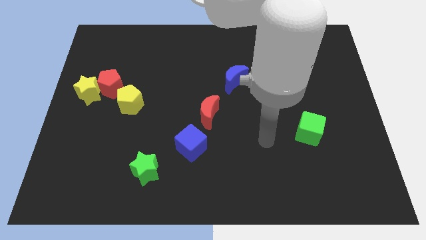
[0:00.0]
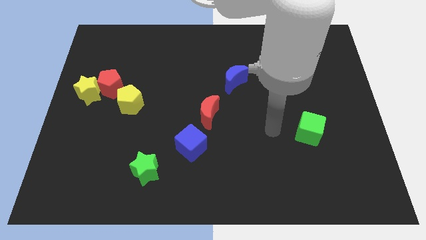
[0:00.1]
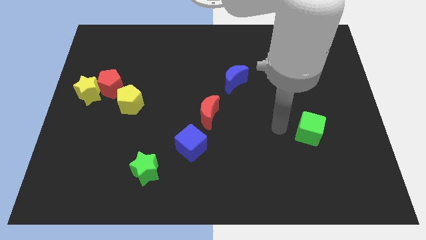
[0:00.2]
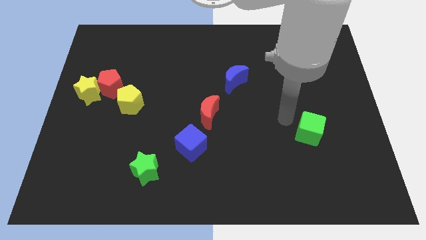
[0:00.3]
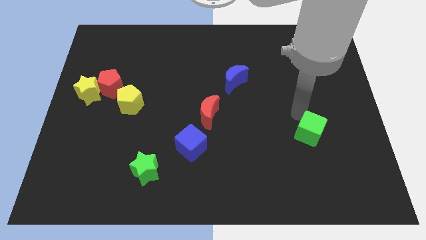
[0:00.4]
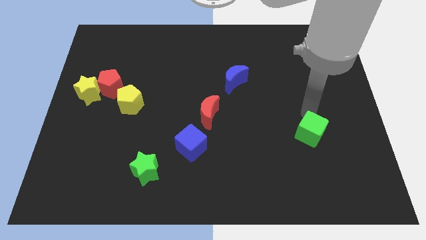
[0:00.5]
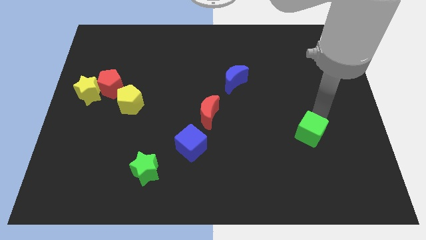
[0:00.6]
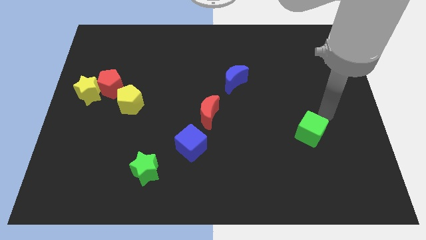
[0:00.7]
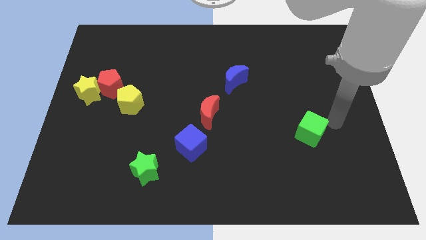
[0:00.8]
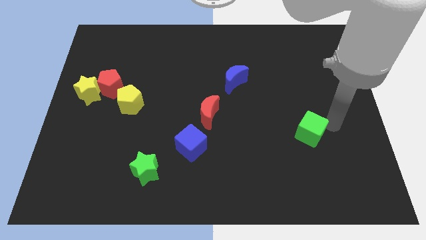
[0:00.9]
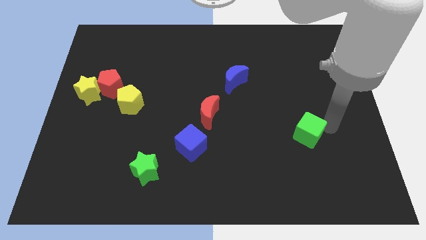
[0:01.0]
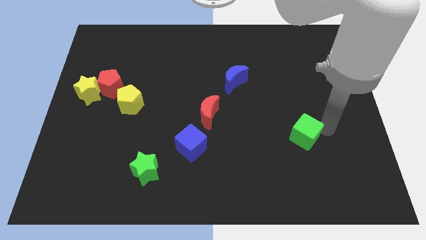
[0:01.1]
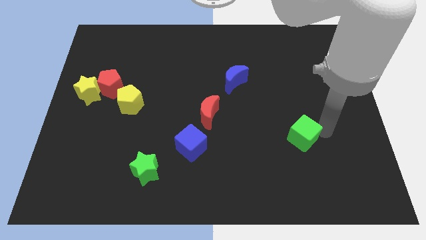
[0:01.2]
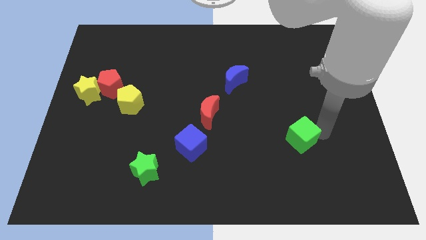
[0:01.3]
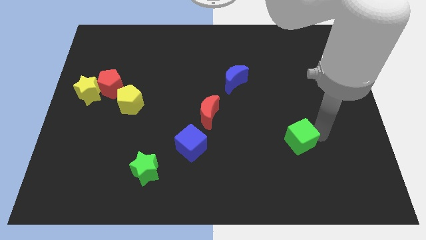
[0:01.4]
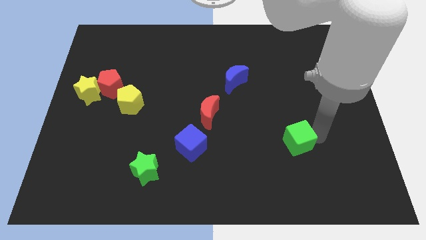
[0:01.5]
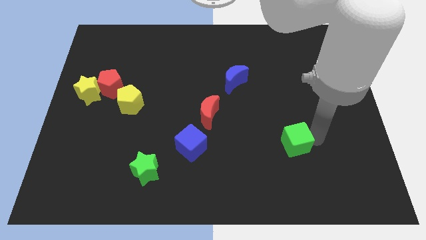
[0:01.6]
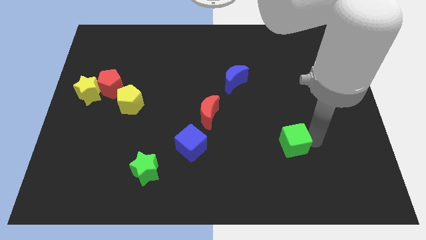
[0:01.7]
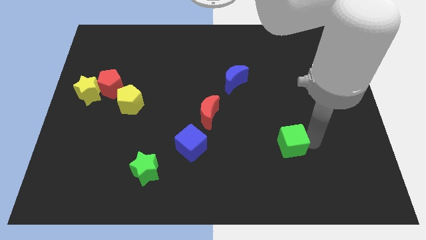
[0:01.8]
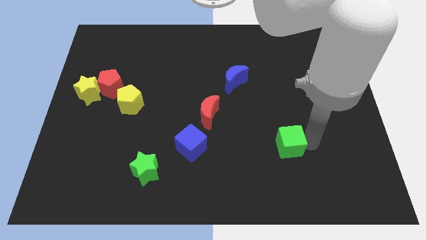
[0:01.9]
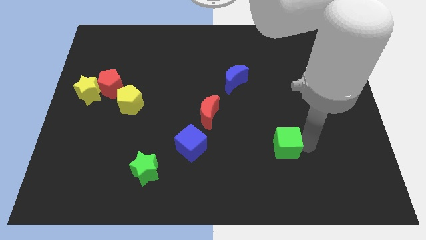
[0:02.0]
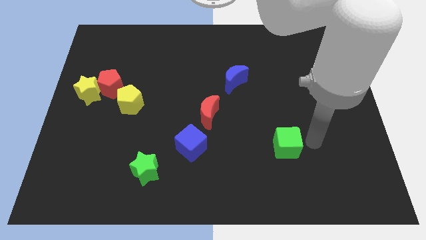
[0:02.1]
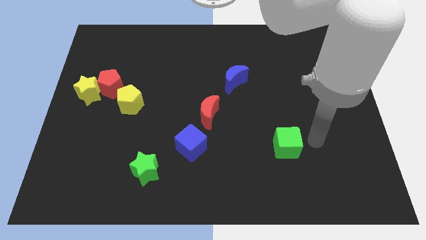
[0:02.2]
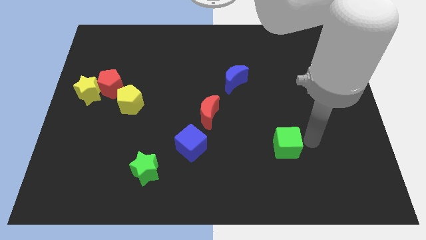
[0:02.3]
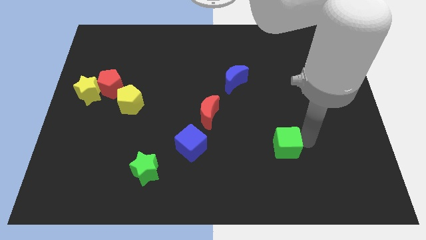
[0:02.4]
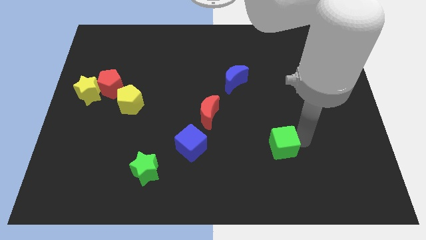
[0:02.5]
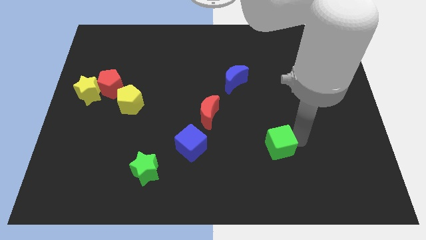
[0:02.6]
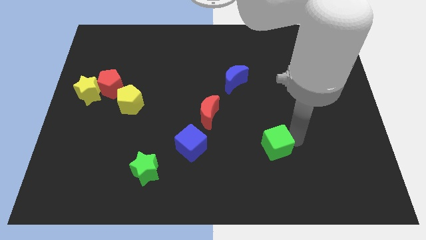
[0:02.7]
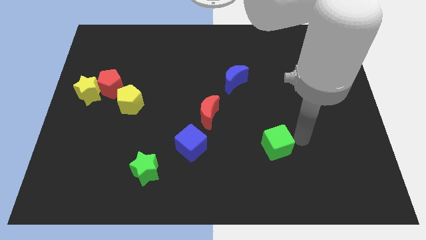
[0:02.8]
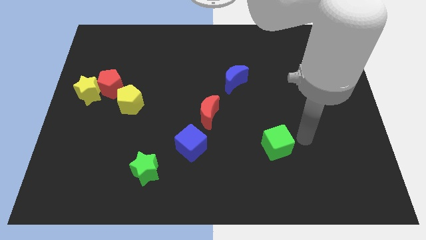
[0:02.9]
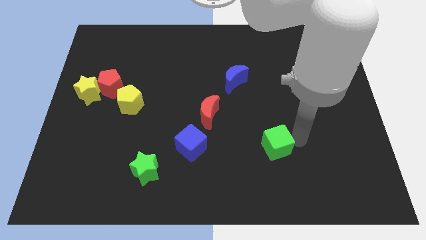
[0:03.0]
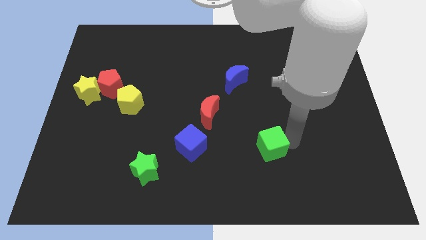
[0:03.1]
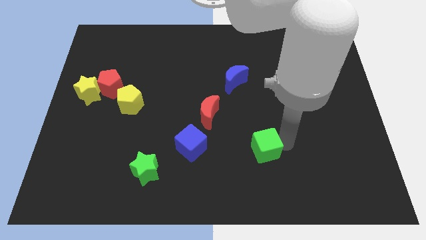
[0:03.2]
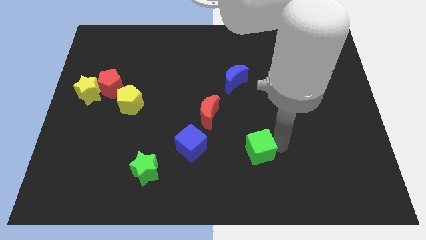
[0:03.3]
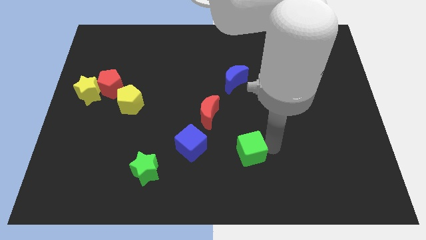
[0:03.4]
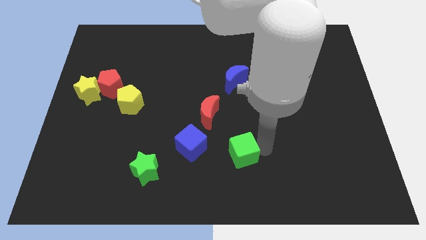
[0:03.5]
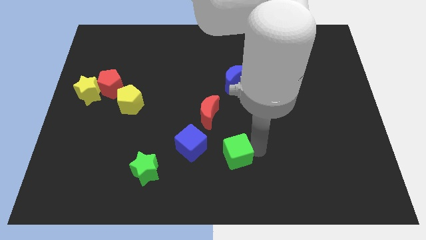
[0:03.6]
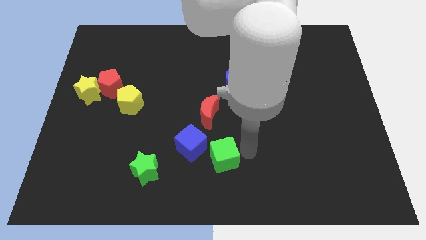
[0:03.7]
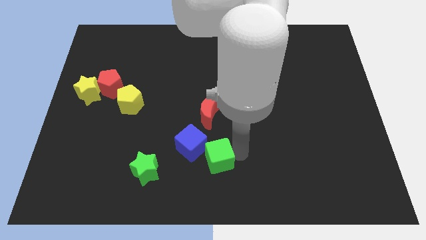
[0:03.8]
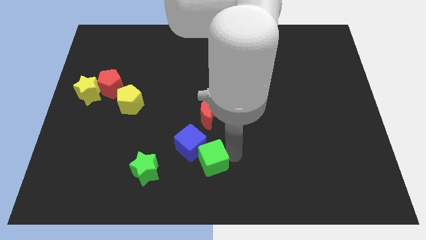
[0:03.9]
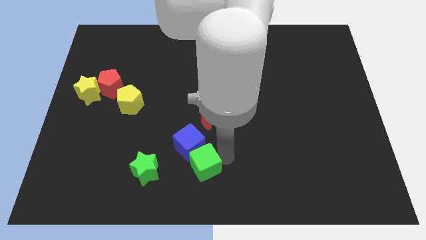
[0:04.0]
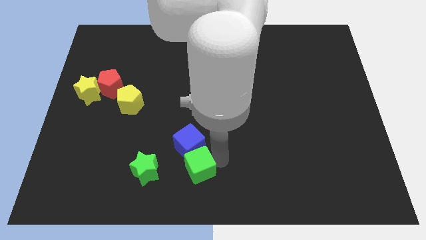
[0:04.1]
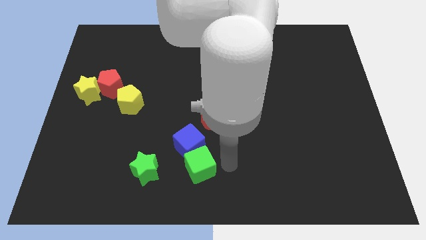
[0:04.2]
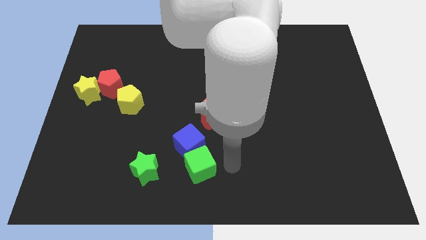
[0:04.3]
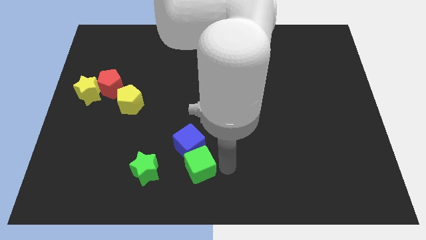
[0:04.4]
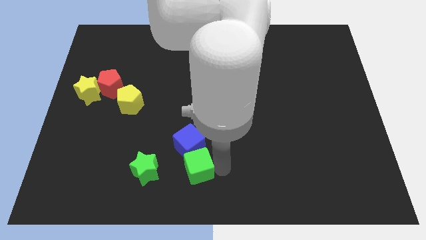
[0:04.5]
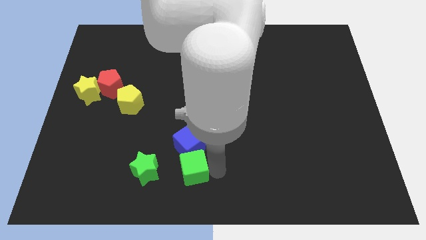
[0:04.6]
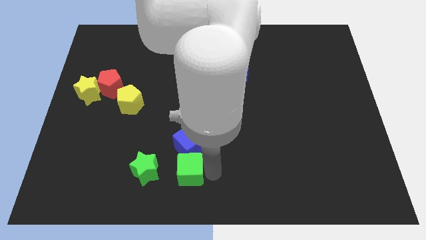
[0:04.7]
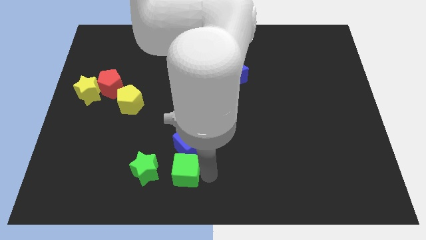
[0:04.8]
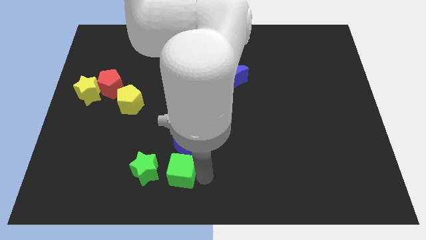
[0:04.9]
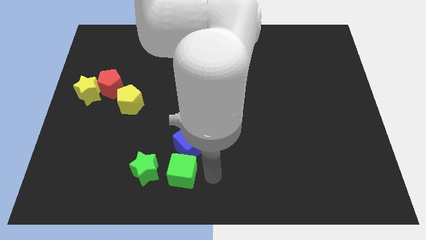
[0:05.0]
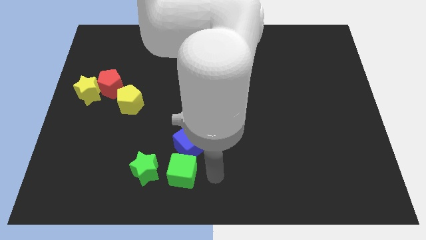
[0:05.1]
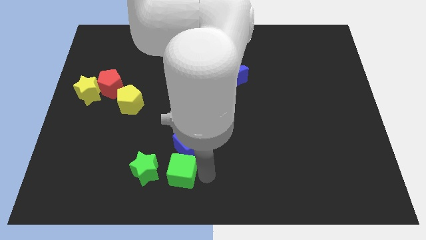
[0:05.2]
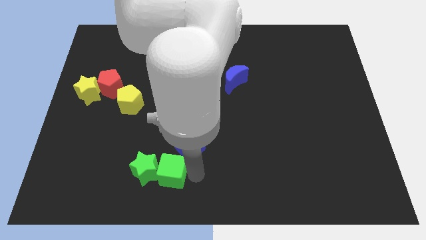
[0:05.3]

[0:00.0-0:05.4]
slide the green cube close to the green star

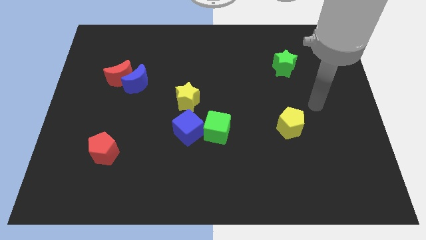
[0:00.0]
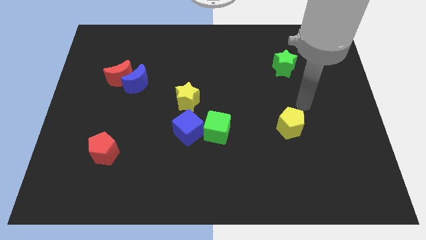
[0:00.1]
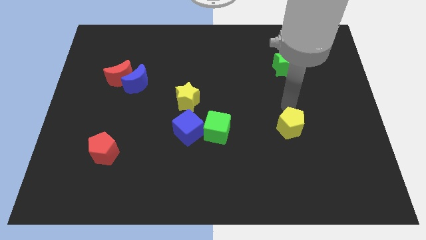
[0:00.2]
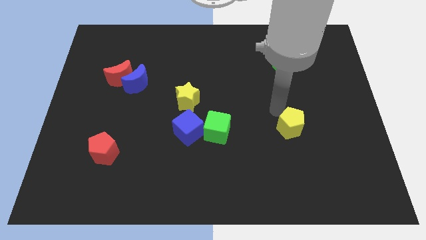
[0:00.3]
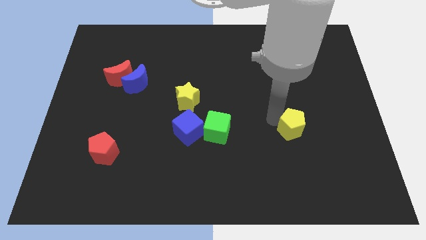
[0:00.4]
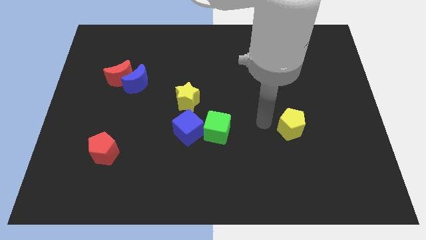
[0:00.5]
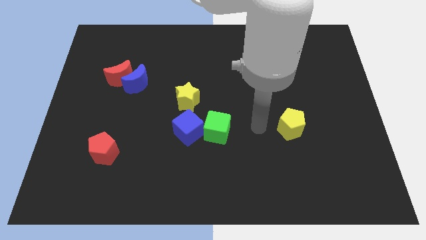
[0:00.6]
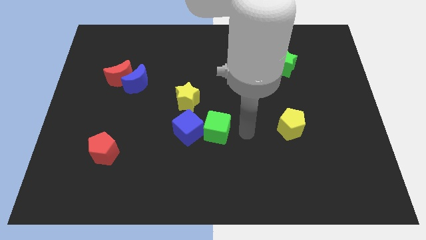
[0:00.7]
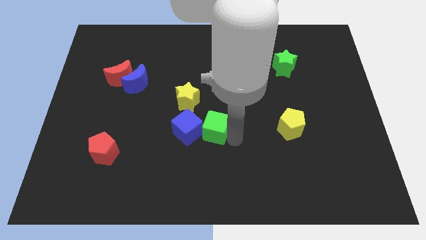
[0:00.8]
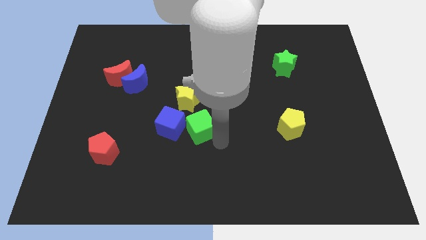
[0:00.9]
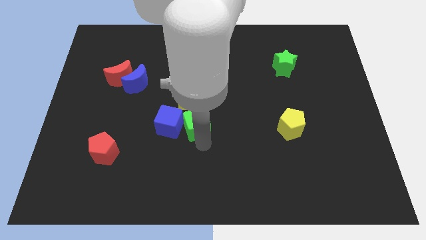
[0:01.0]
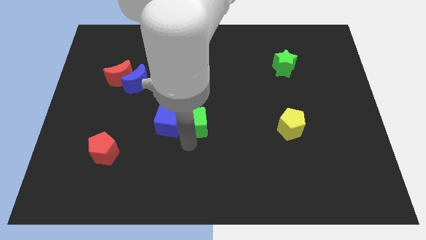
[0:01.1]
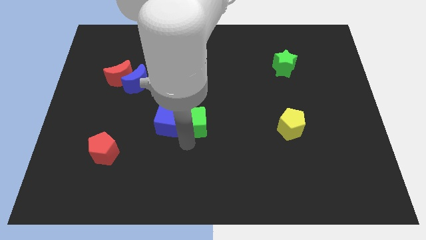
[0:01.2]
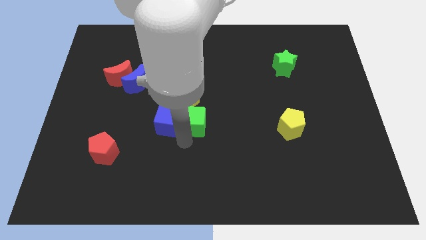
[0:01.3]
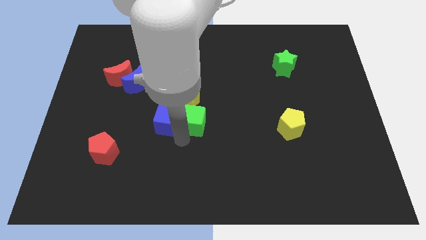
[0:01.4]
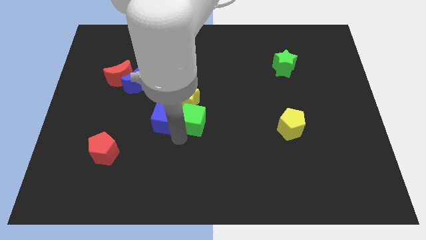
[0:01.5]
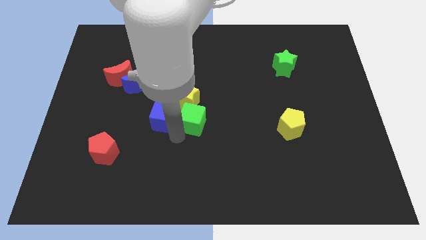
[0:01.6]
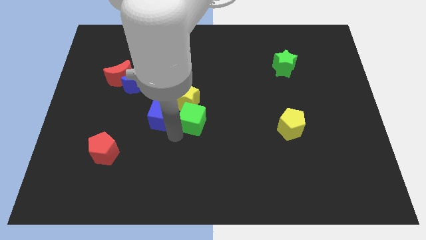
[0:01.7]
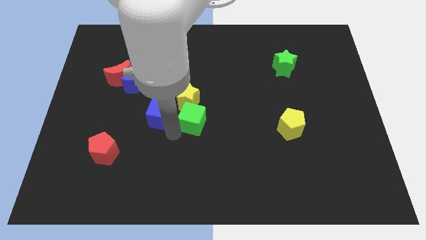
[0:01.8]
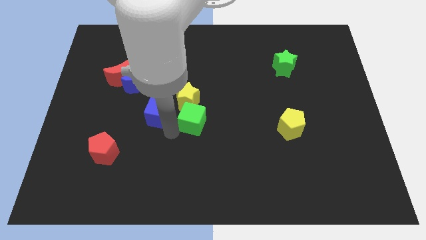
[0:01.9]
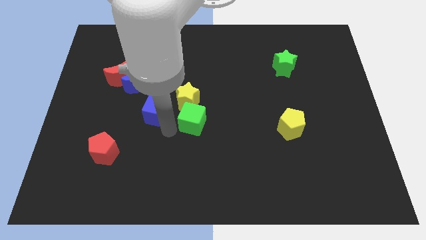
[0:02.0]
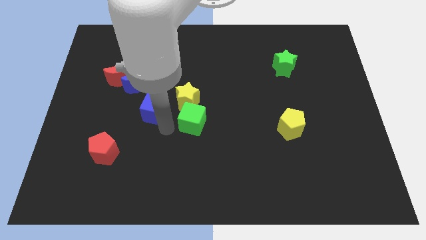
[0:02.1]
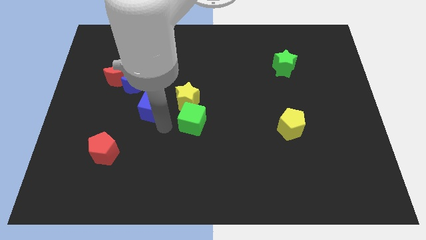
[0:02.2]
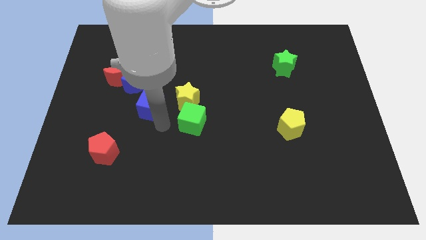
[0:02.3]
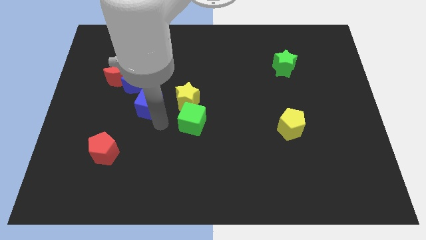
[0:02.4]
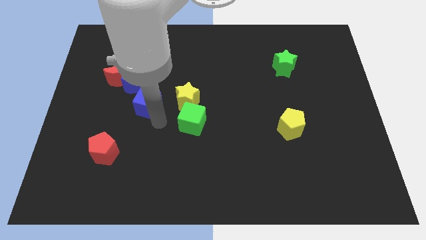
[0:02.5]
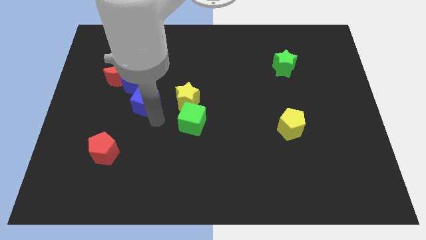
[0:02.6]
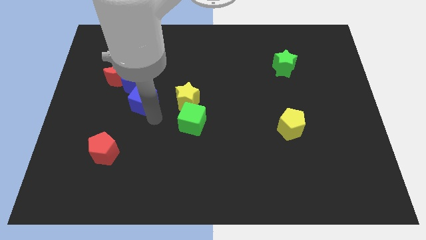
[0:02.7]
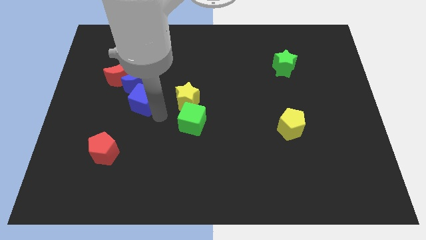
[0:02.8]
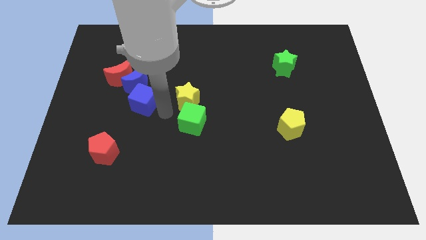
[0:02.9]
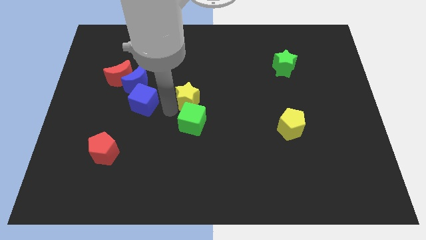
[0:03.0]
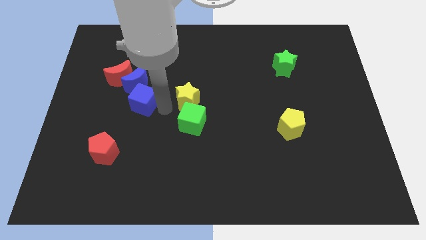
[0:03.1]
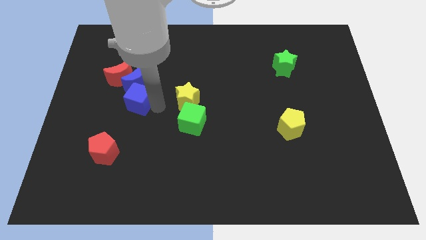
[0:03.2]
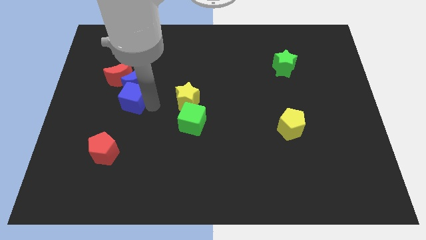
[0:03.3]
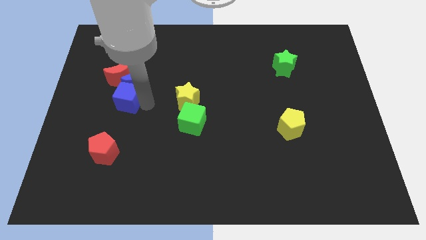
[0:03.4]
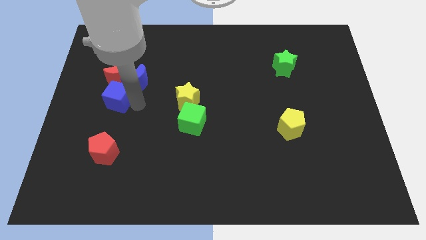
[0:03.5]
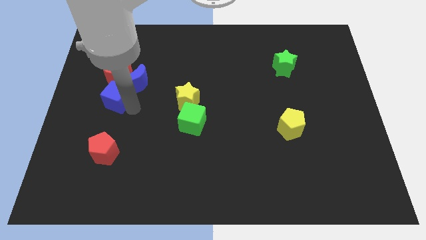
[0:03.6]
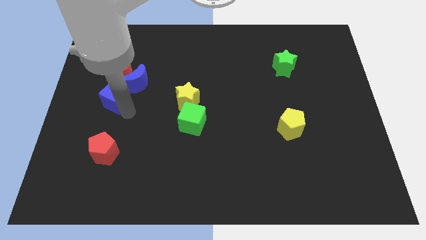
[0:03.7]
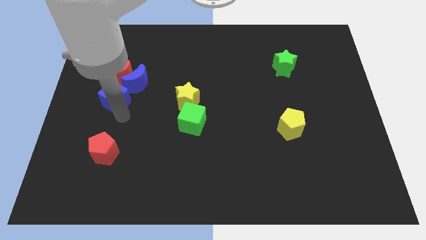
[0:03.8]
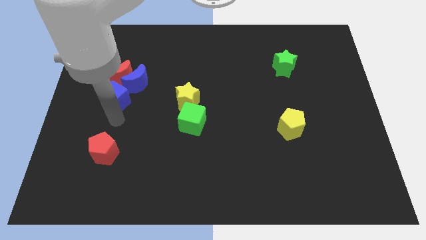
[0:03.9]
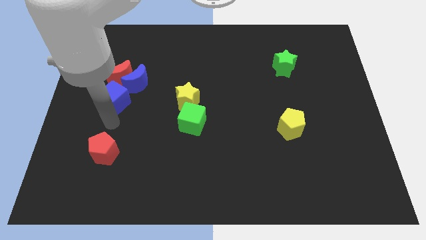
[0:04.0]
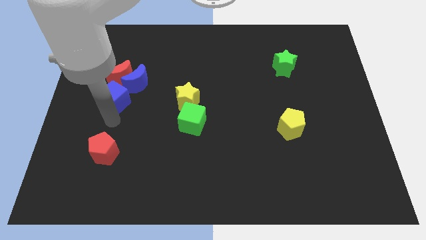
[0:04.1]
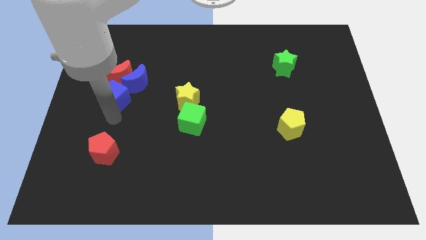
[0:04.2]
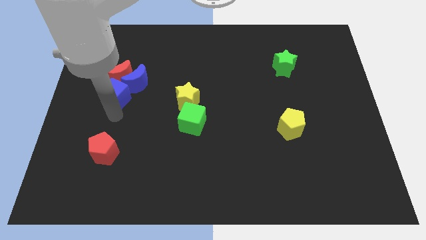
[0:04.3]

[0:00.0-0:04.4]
move the blue cube close to the red moon
